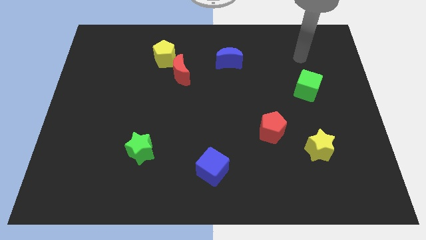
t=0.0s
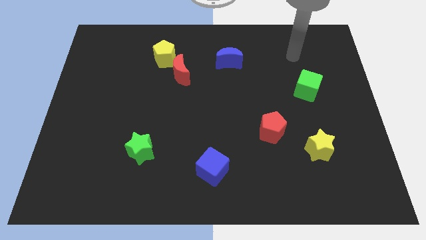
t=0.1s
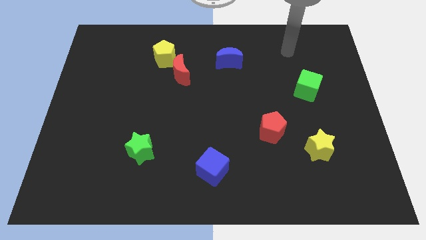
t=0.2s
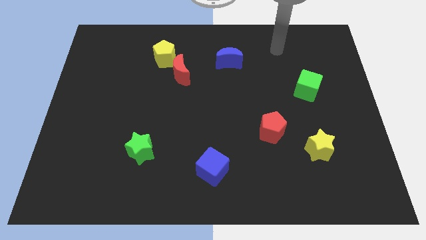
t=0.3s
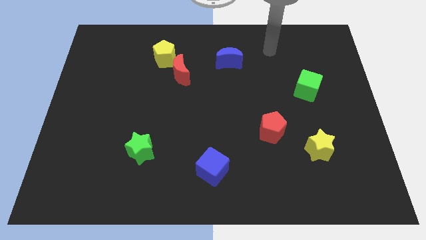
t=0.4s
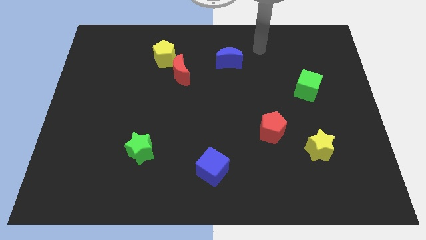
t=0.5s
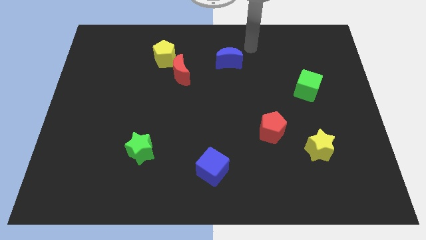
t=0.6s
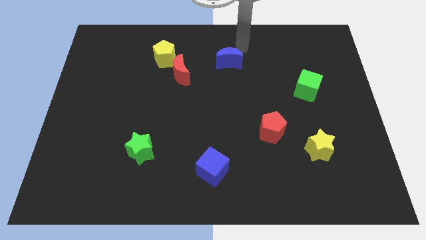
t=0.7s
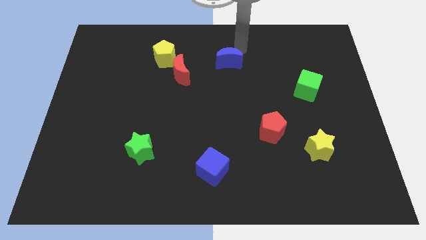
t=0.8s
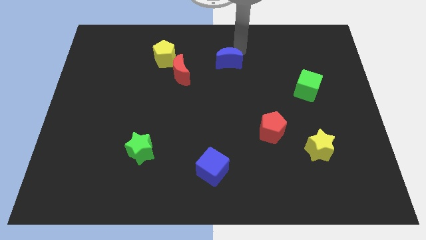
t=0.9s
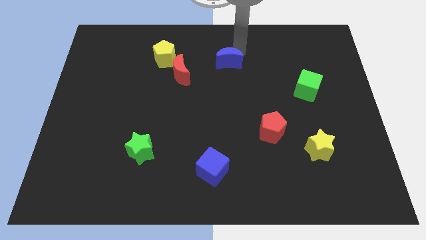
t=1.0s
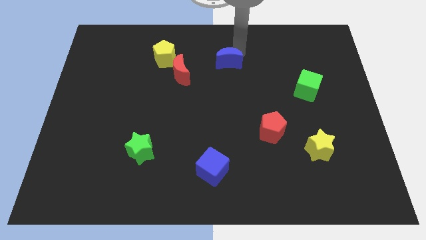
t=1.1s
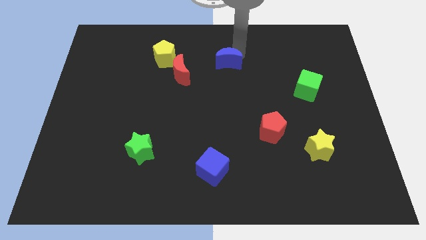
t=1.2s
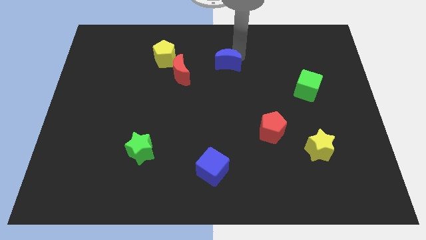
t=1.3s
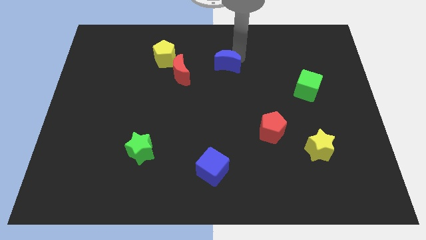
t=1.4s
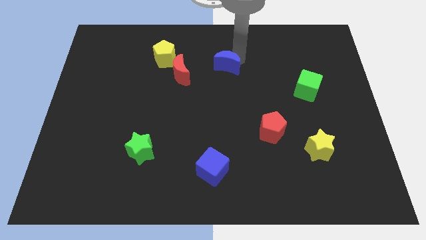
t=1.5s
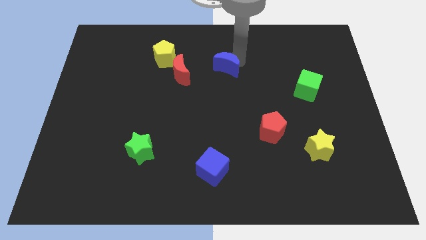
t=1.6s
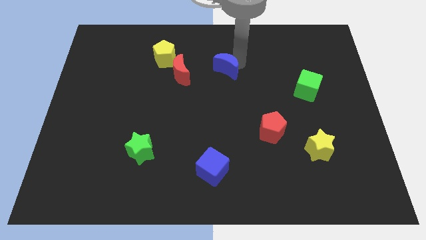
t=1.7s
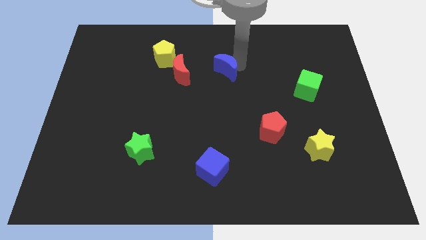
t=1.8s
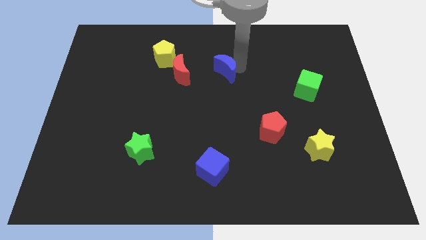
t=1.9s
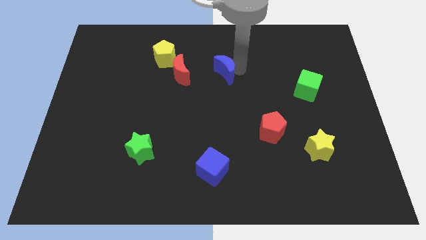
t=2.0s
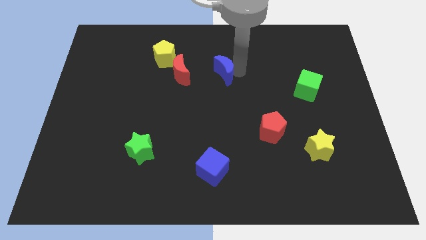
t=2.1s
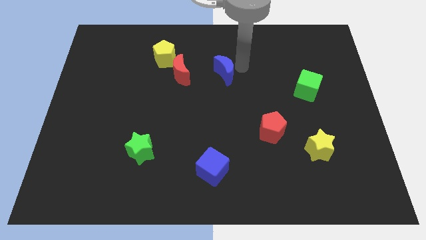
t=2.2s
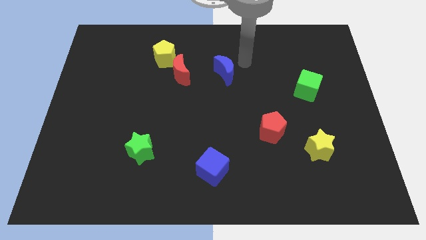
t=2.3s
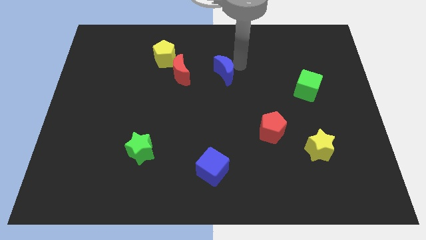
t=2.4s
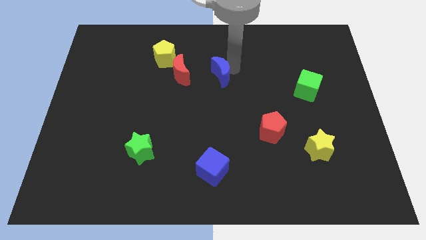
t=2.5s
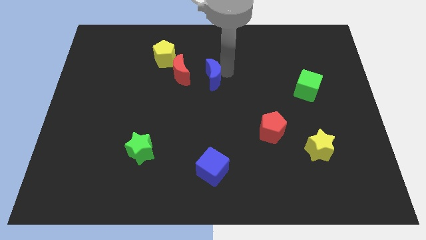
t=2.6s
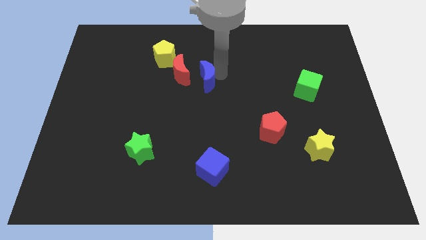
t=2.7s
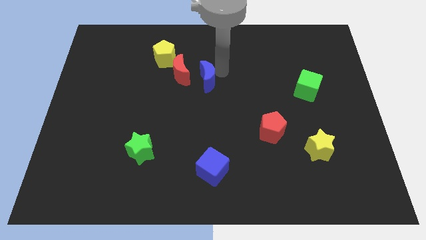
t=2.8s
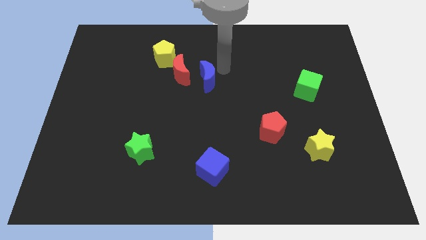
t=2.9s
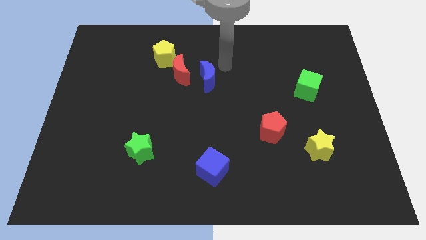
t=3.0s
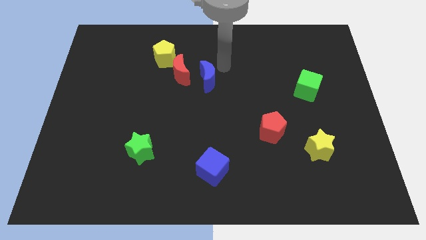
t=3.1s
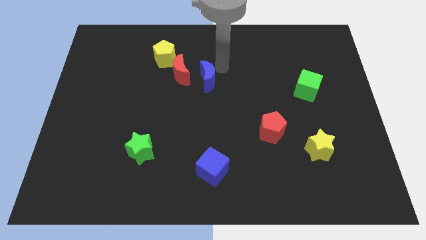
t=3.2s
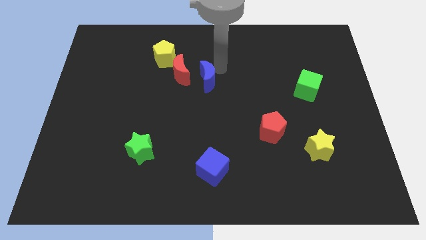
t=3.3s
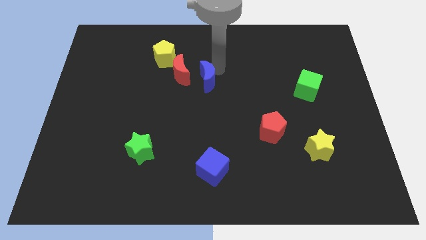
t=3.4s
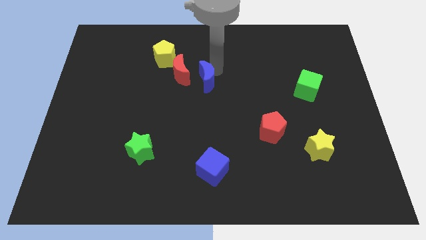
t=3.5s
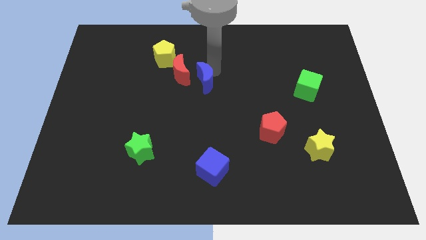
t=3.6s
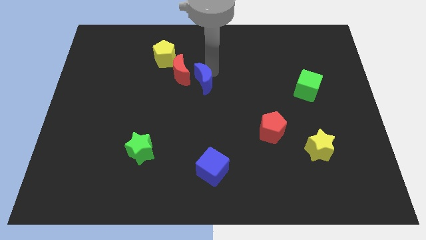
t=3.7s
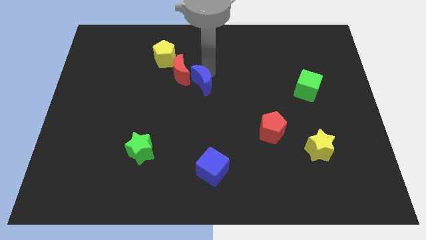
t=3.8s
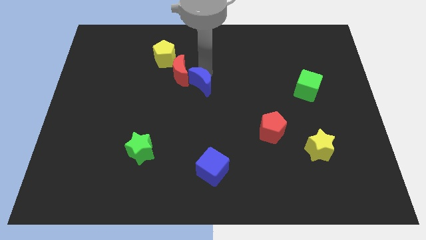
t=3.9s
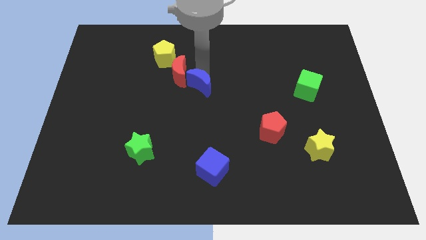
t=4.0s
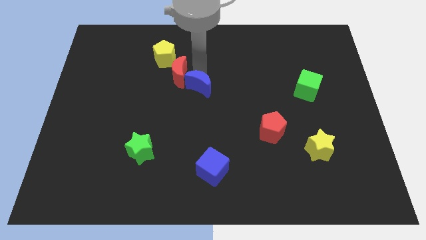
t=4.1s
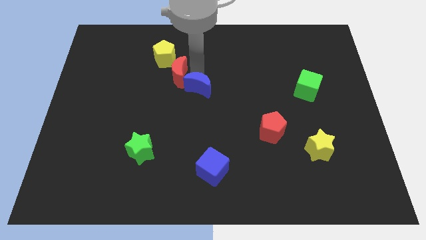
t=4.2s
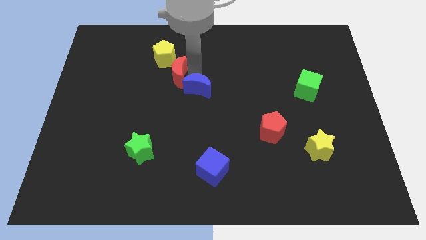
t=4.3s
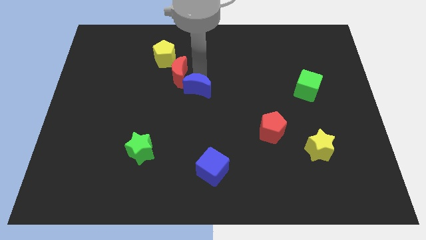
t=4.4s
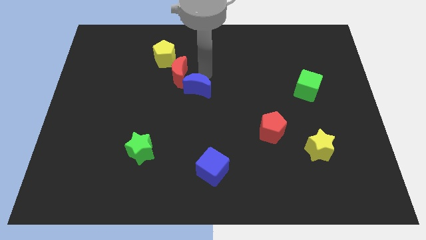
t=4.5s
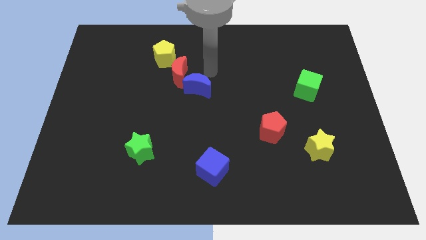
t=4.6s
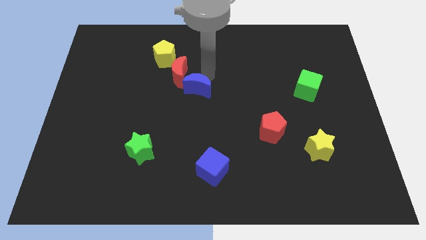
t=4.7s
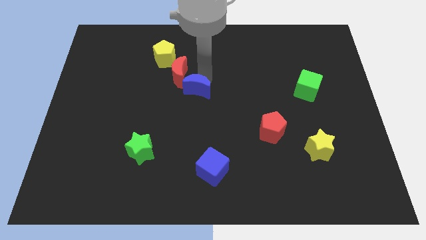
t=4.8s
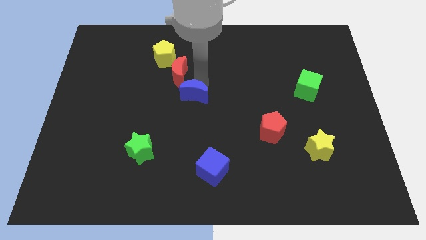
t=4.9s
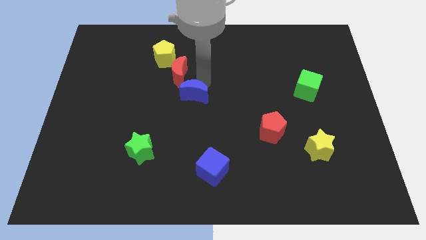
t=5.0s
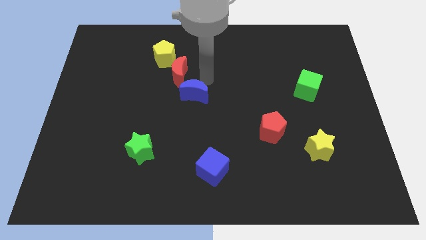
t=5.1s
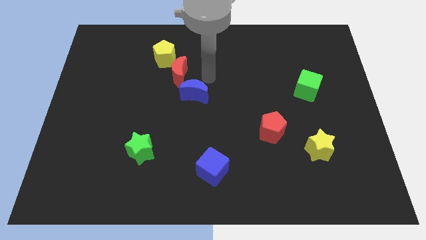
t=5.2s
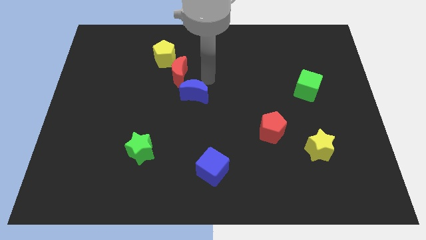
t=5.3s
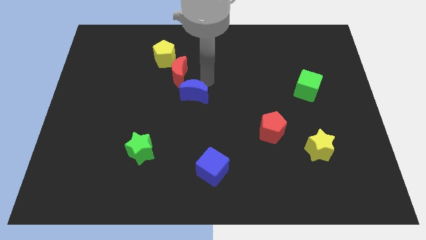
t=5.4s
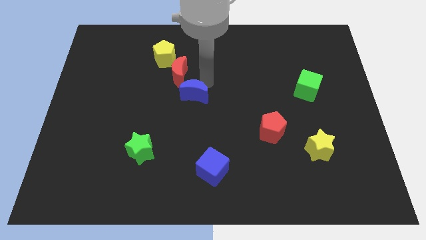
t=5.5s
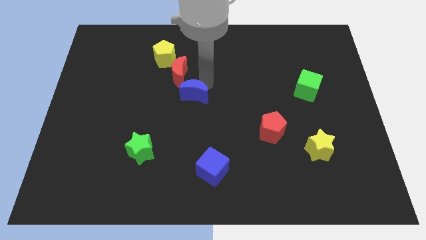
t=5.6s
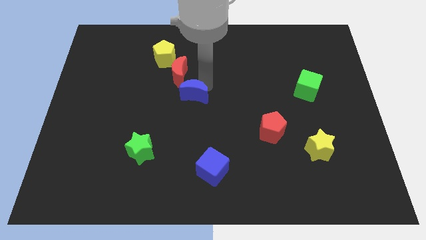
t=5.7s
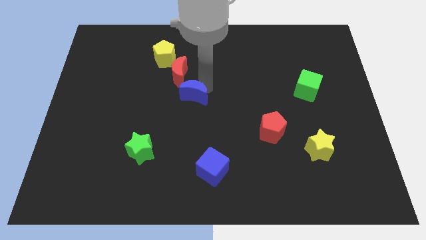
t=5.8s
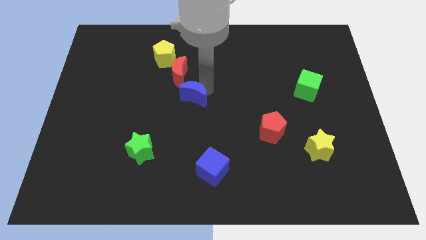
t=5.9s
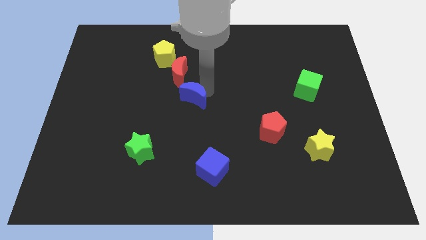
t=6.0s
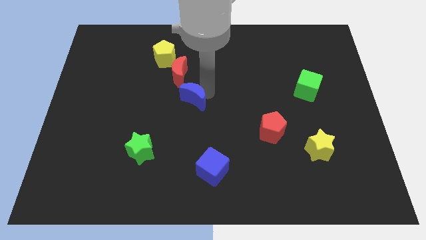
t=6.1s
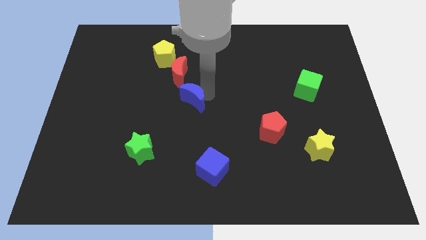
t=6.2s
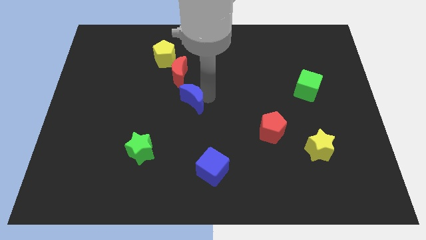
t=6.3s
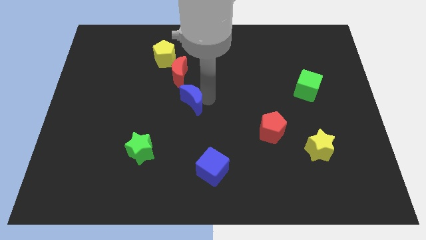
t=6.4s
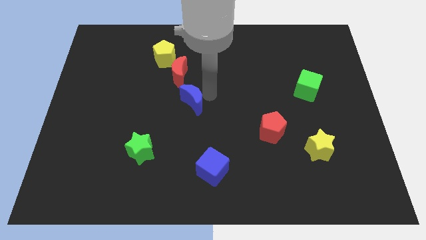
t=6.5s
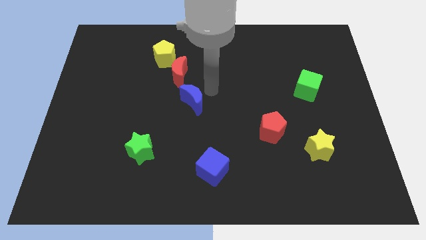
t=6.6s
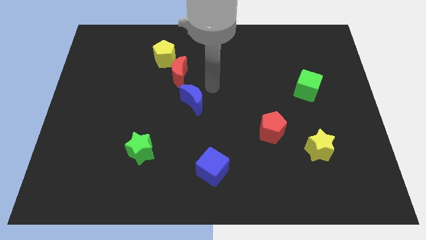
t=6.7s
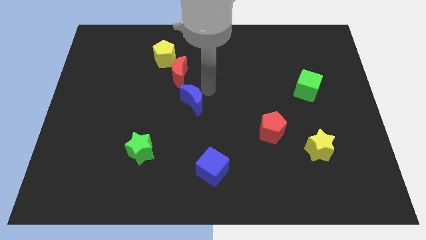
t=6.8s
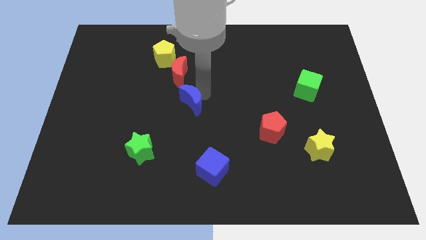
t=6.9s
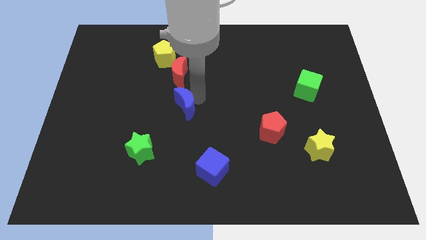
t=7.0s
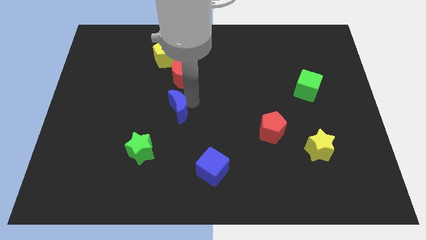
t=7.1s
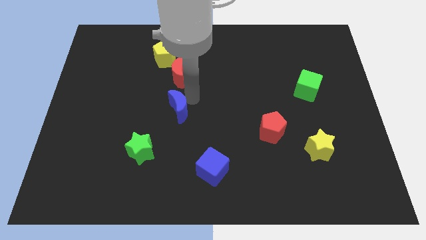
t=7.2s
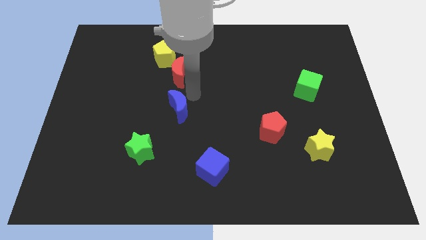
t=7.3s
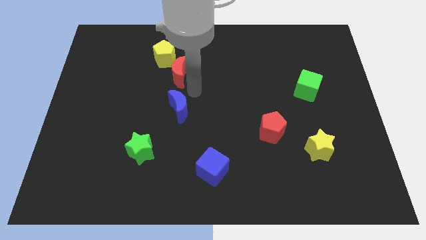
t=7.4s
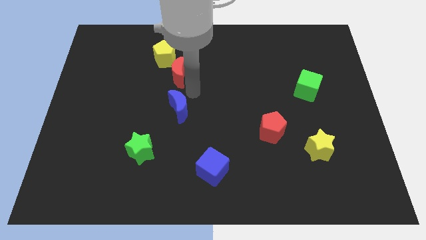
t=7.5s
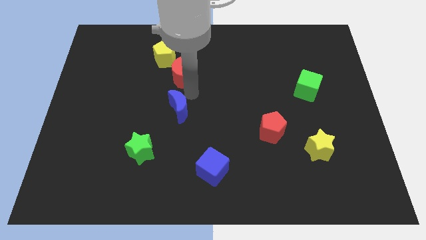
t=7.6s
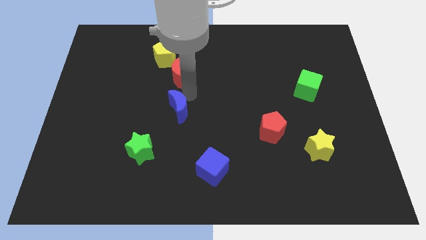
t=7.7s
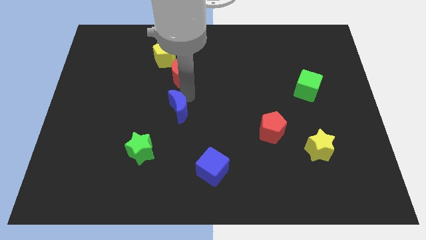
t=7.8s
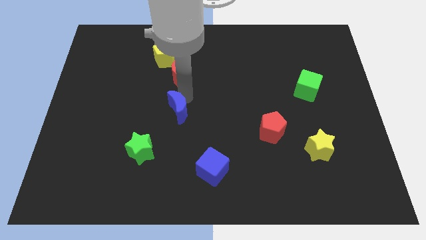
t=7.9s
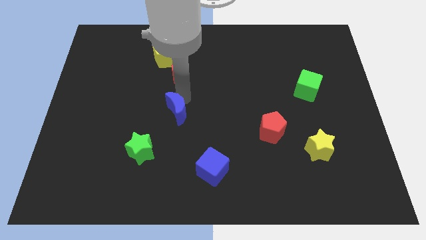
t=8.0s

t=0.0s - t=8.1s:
push the blue moon down and to the left
